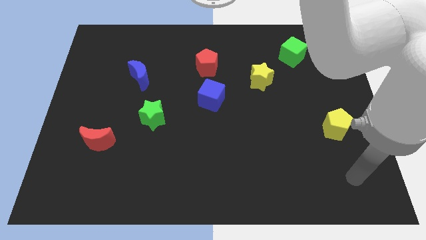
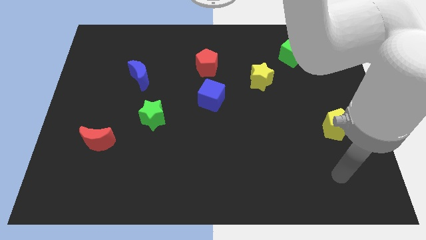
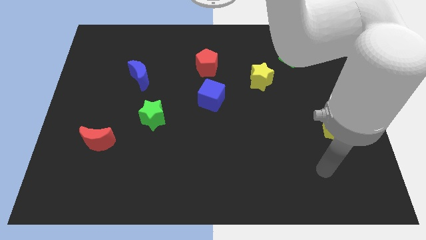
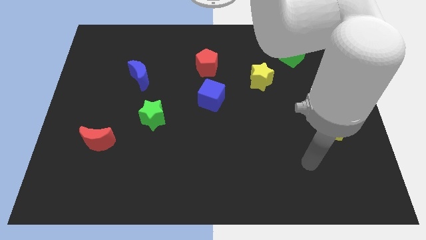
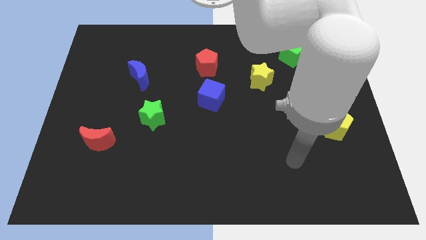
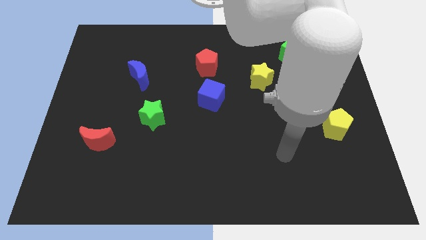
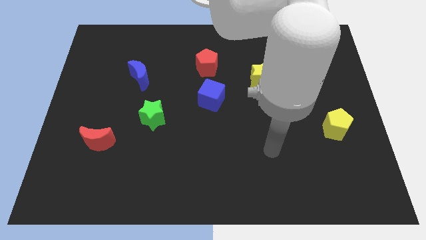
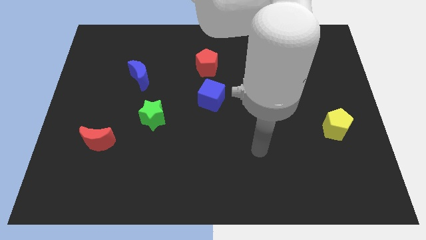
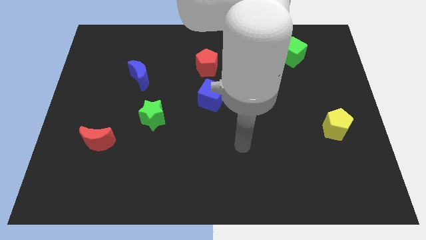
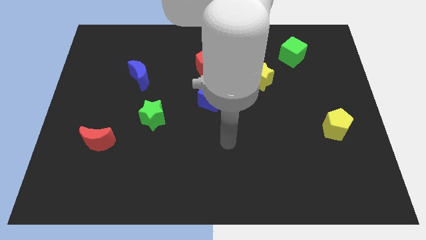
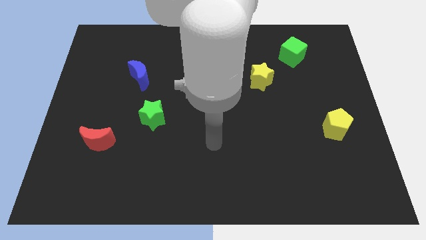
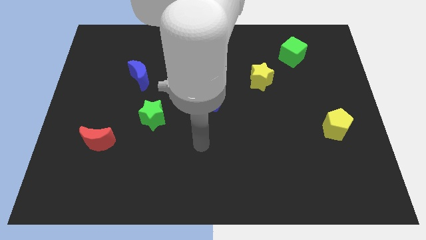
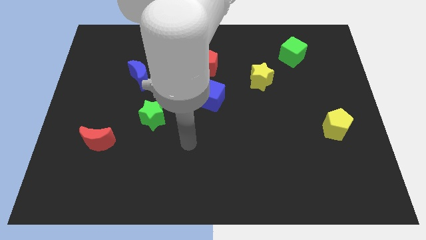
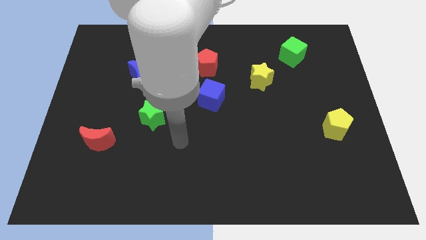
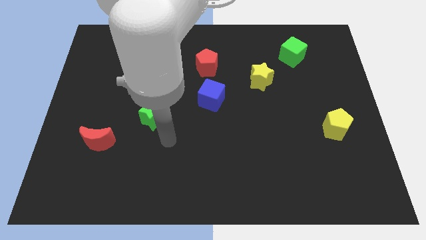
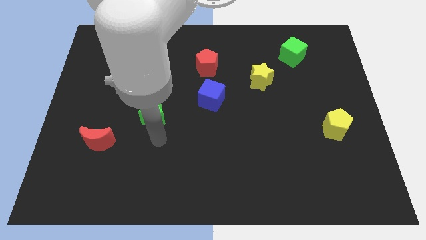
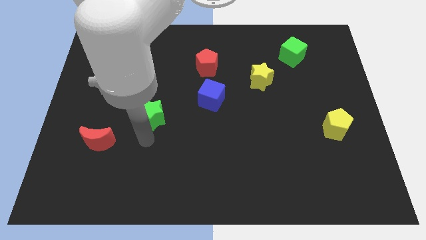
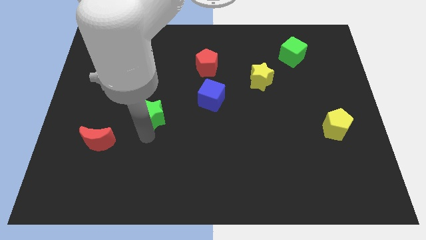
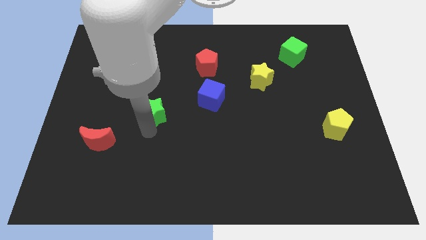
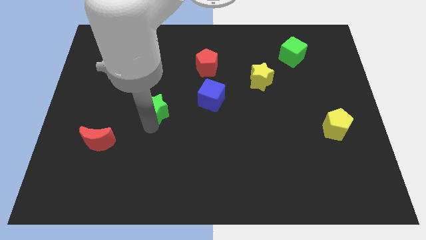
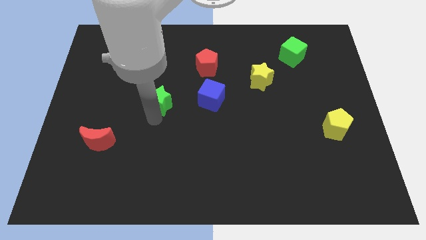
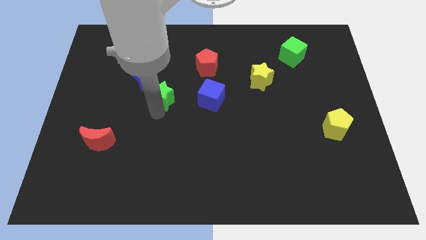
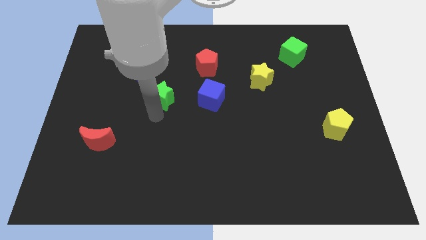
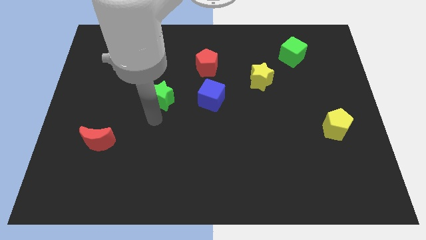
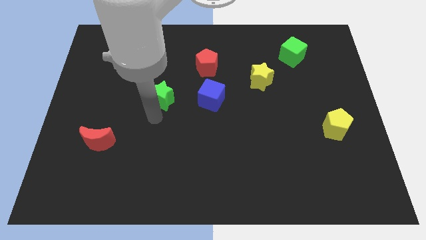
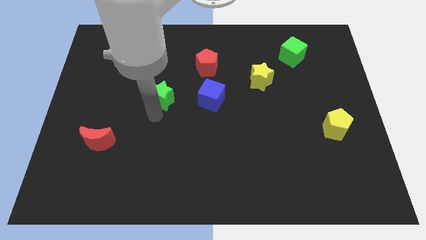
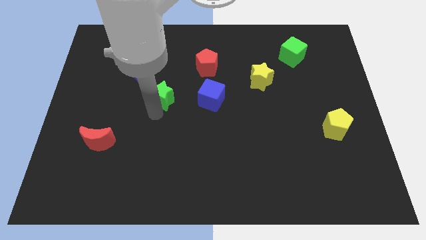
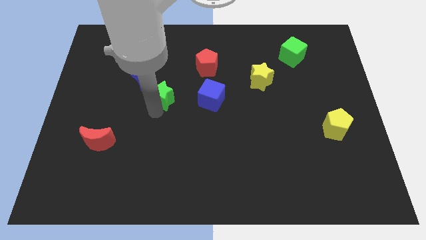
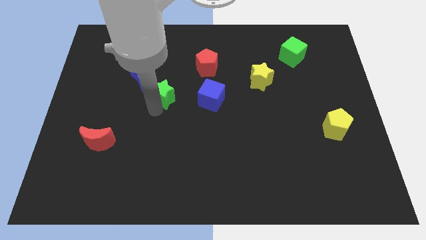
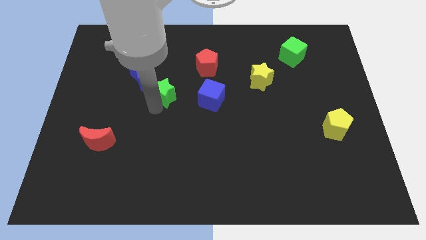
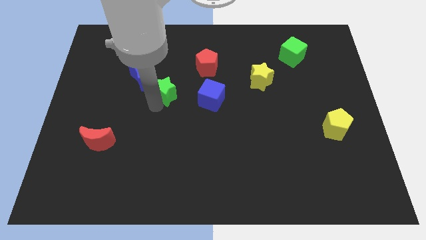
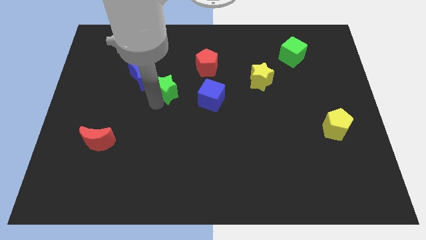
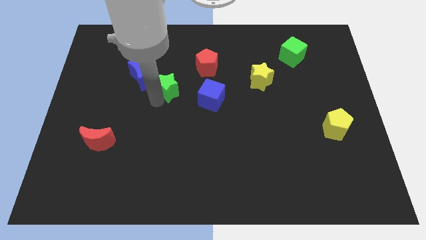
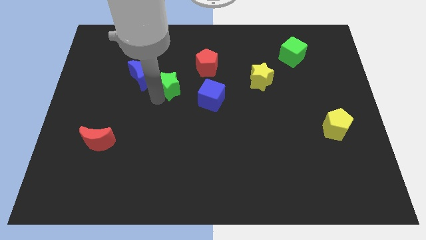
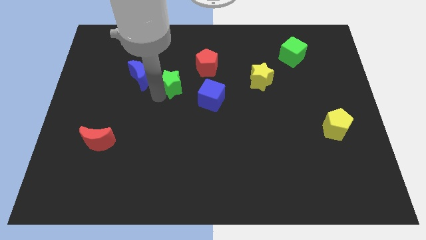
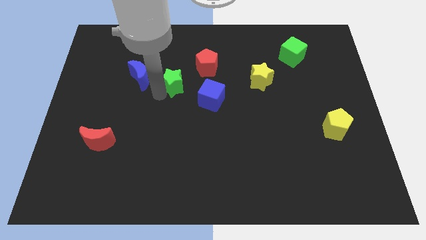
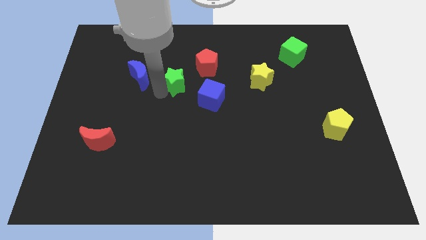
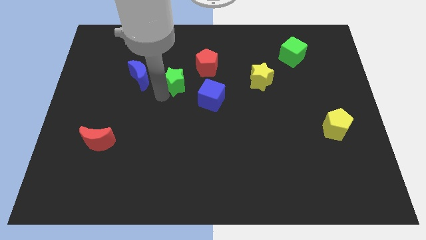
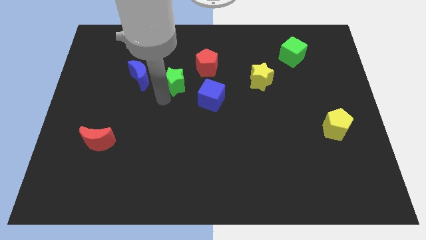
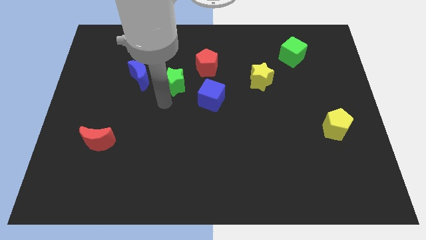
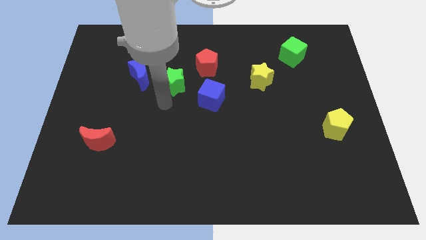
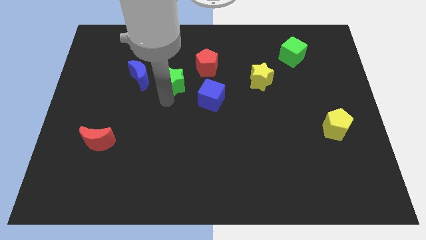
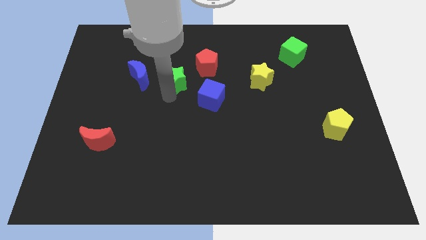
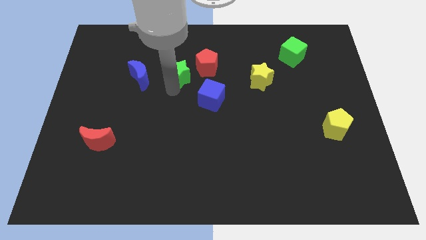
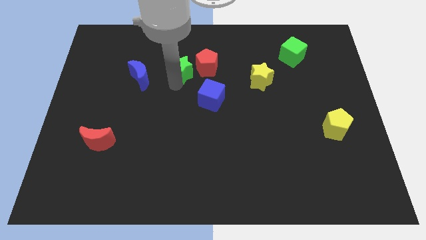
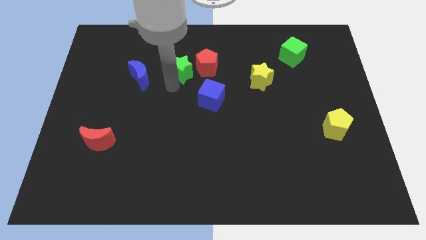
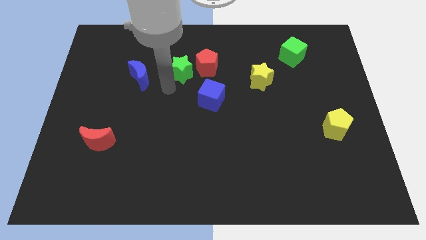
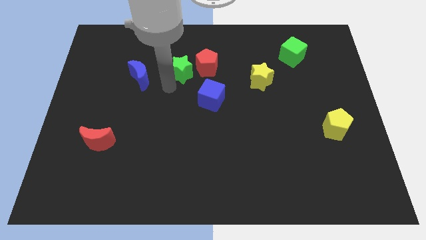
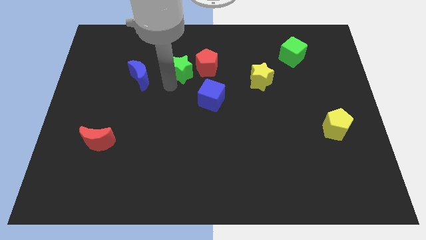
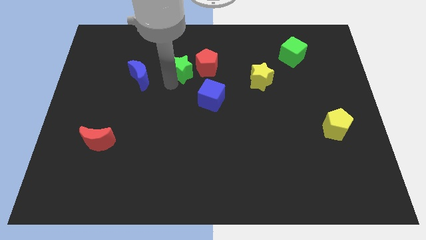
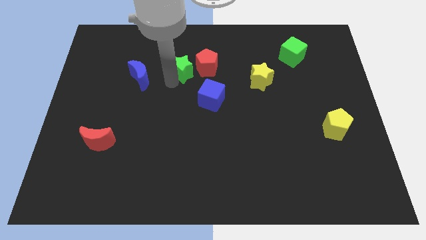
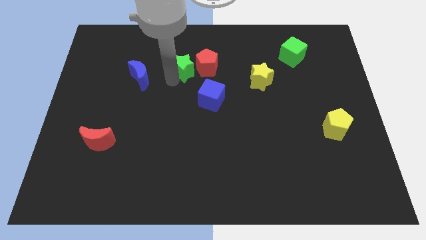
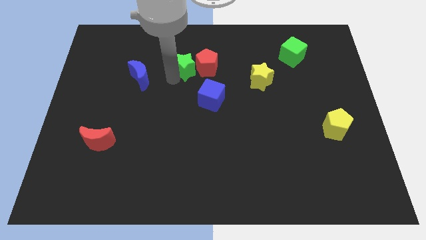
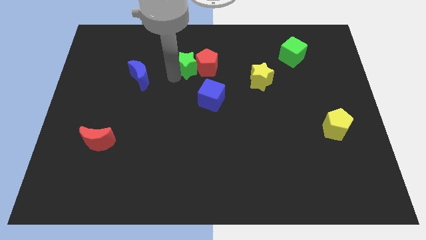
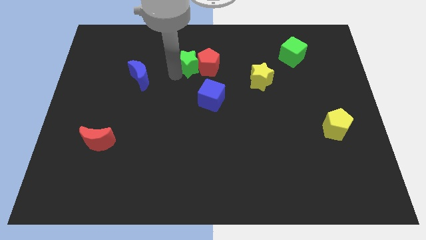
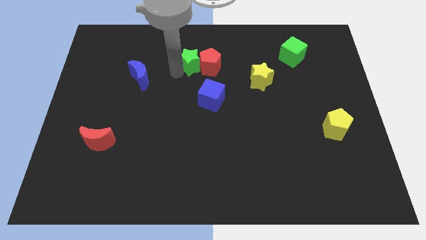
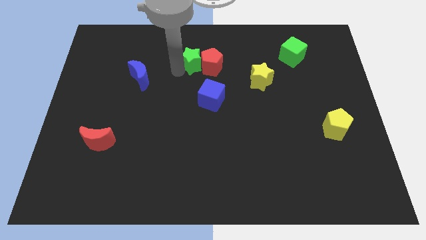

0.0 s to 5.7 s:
move the green star to the top side of the blue cube

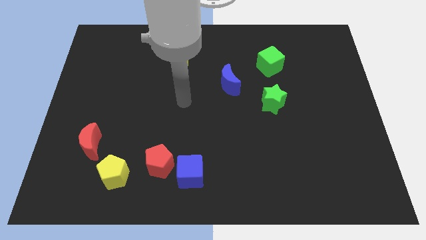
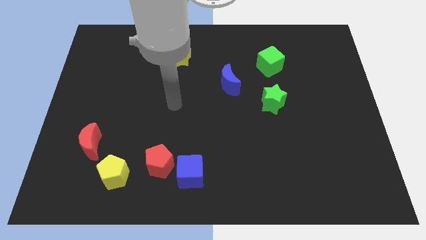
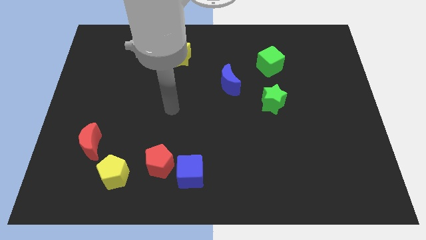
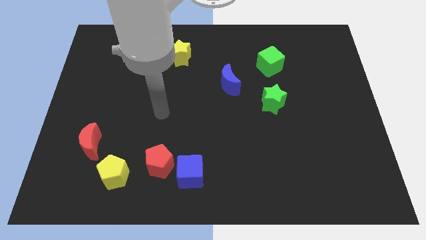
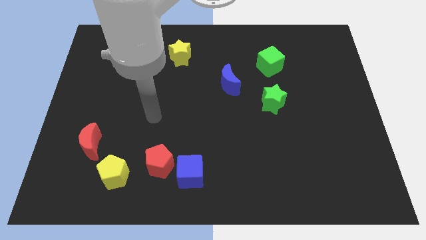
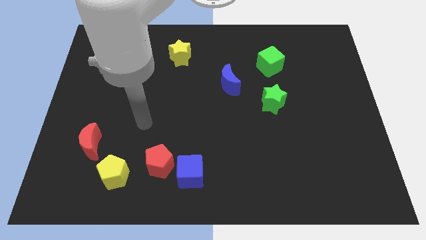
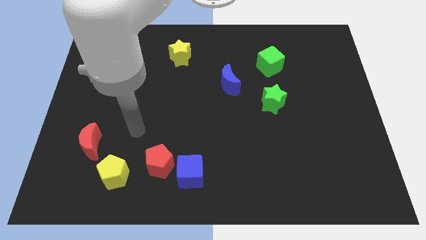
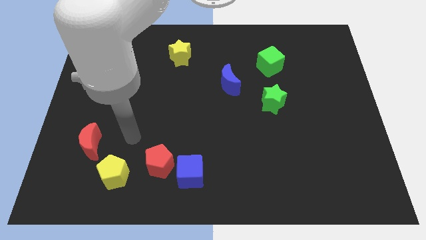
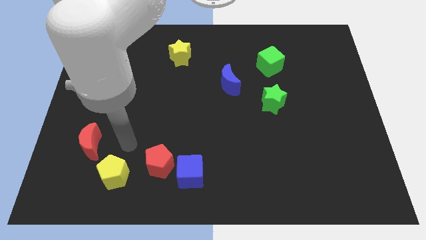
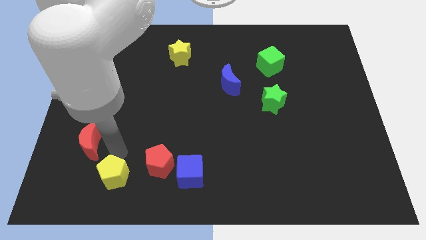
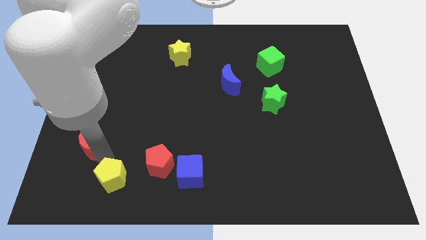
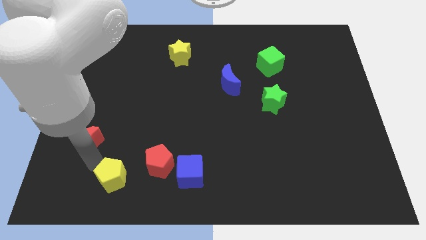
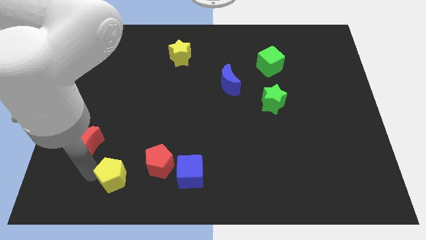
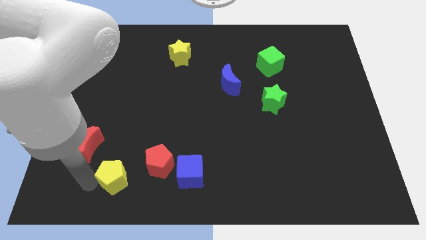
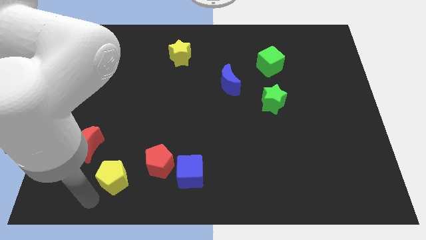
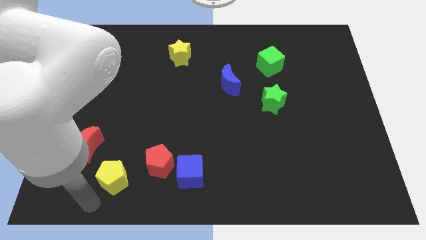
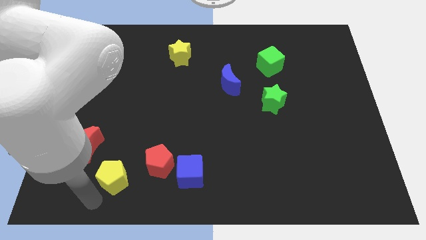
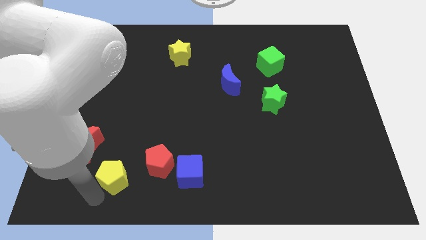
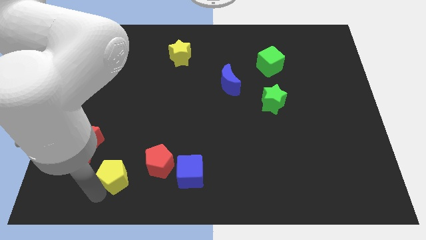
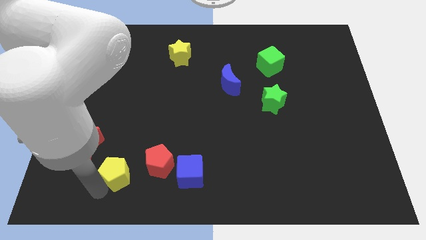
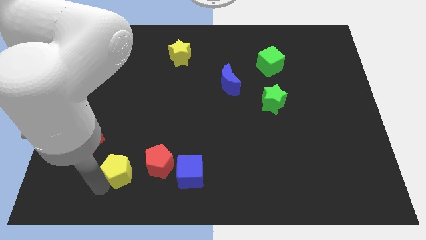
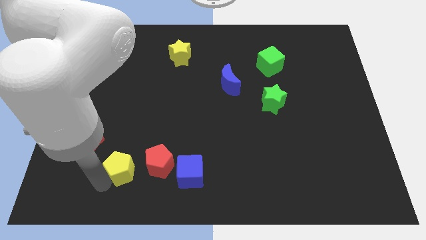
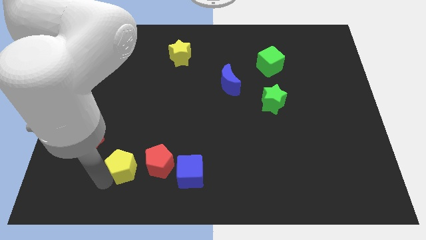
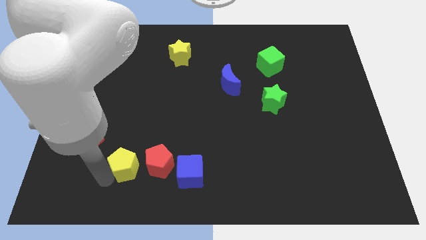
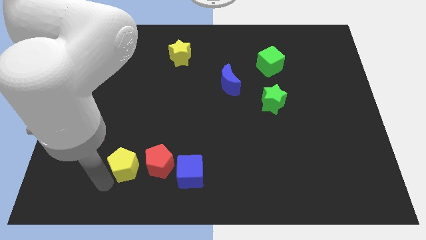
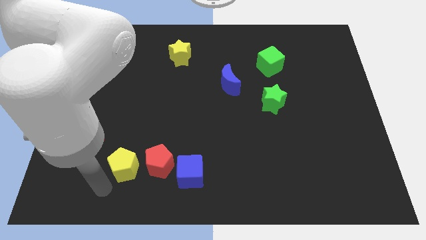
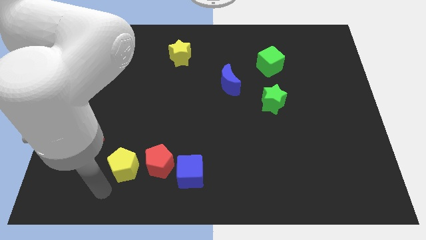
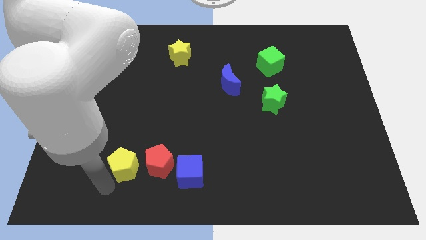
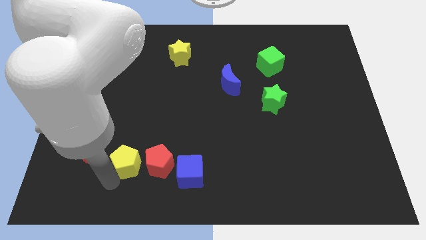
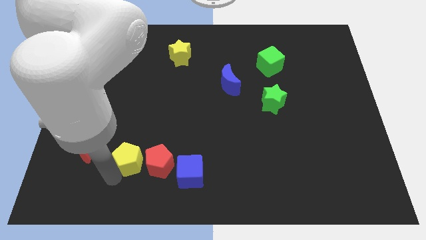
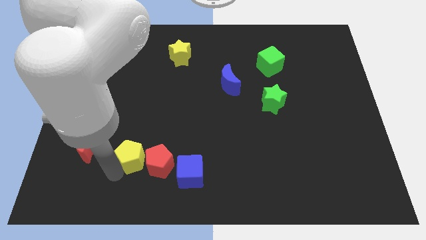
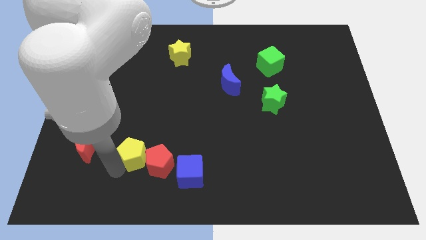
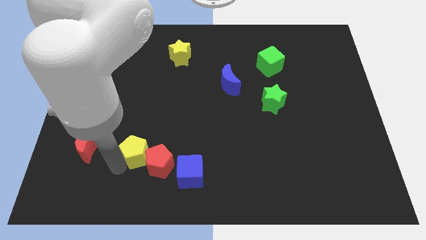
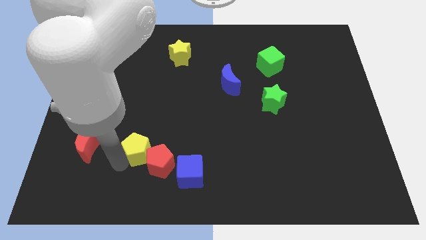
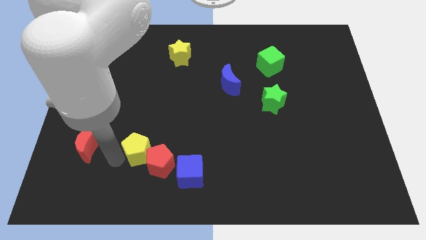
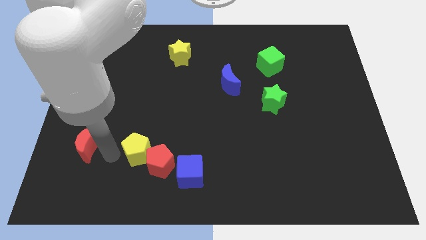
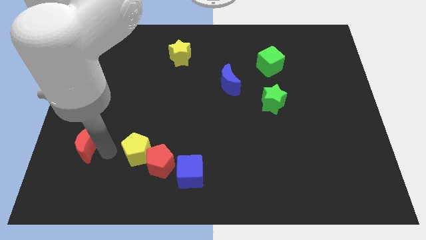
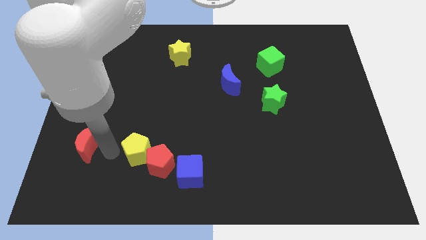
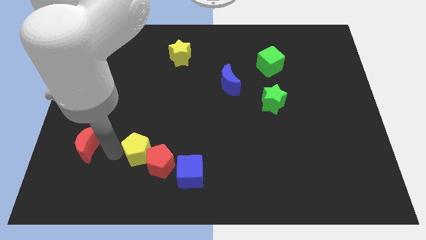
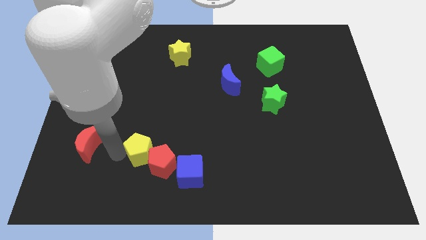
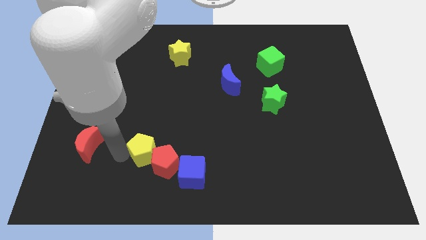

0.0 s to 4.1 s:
put the yellow pentagon diagonally up and to the left of the blue cube
